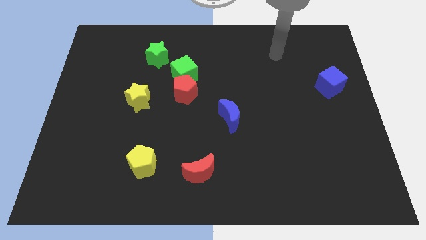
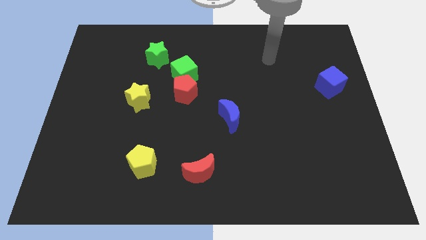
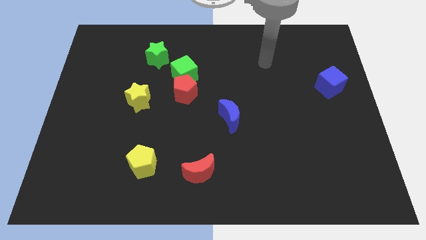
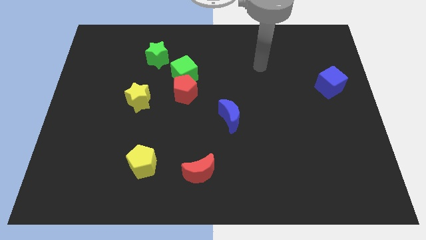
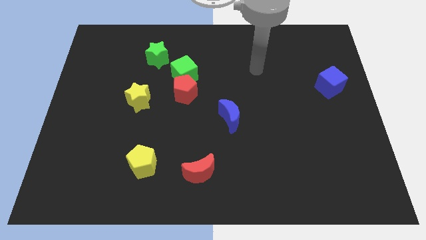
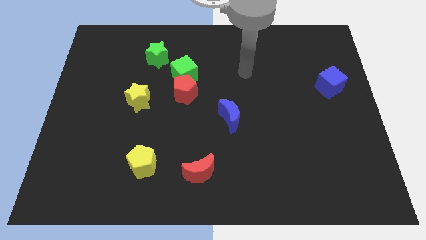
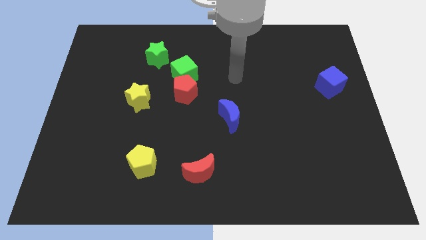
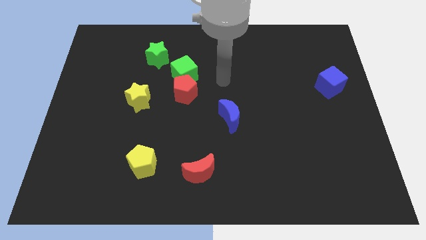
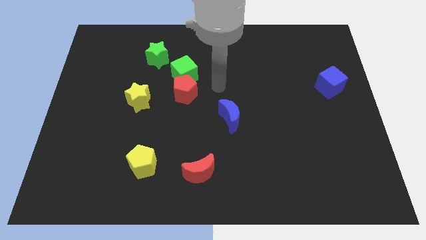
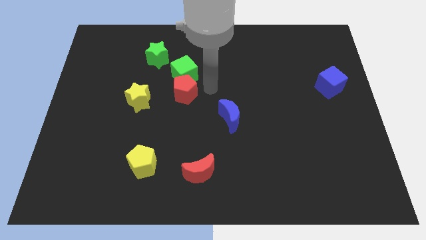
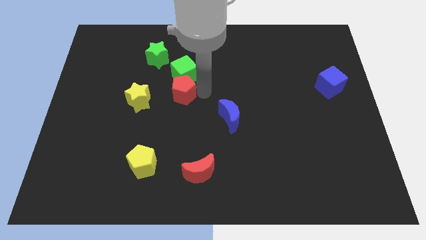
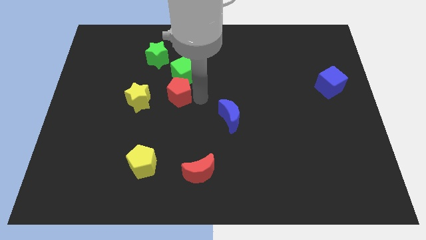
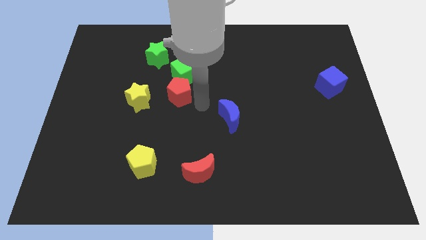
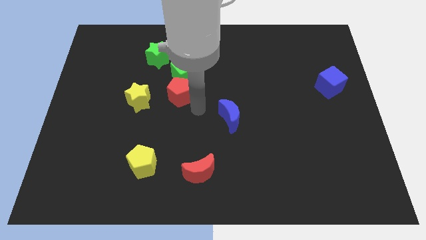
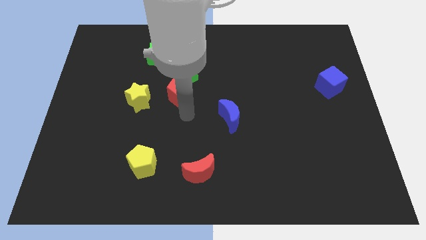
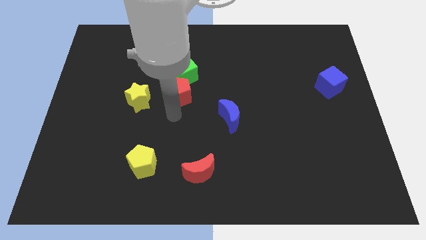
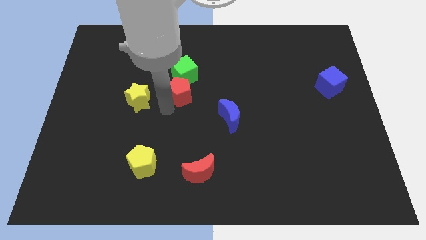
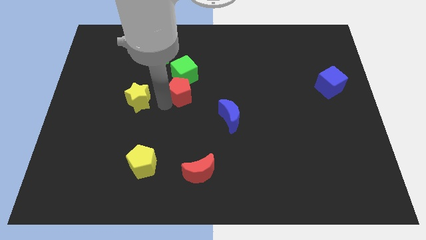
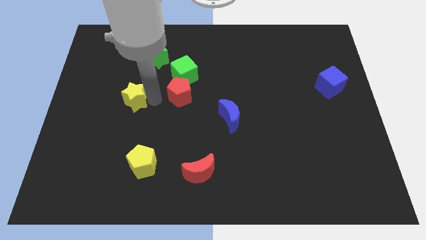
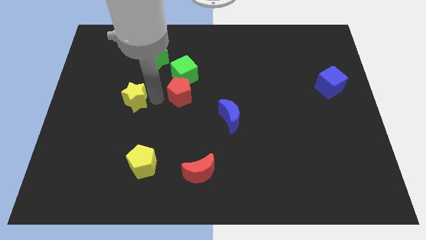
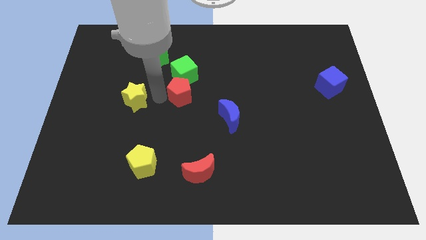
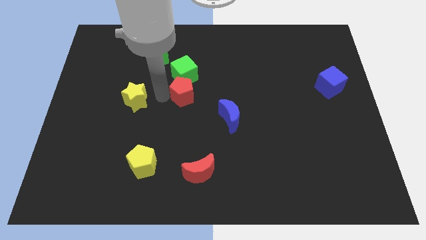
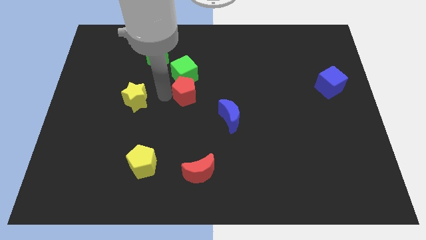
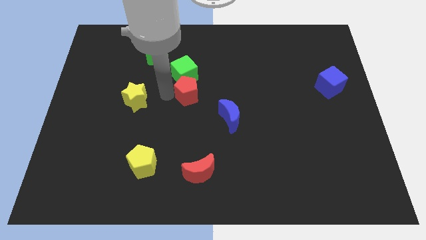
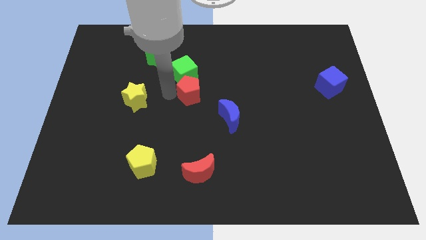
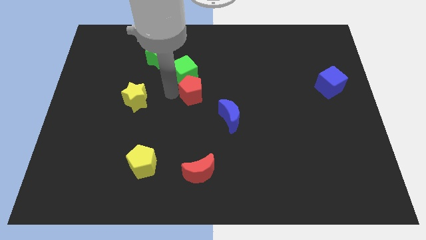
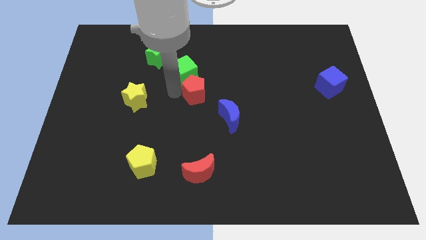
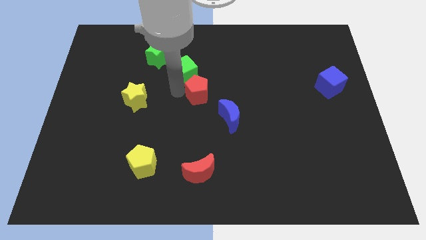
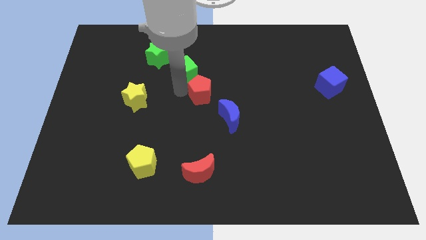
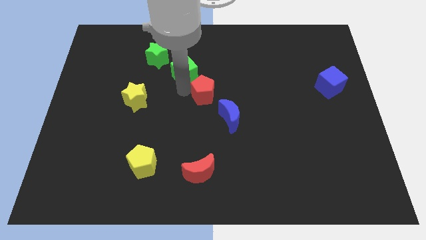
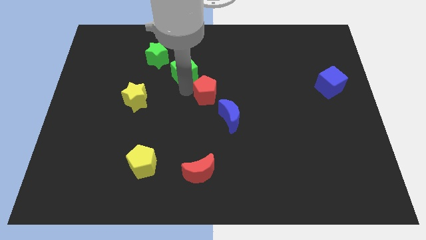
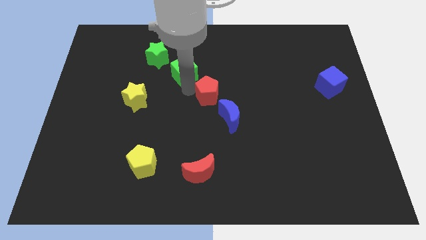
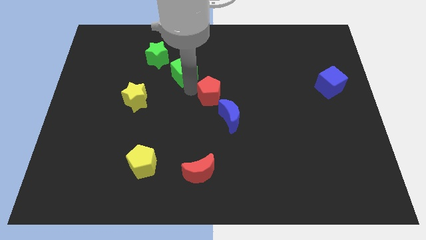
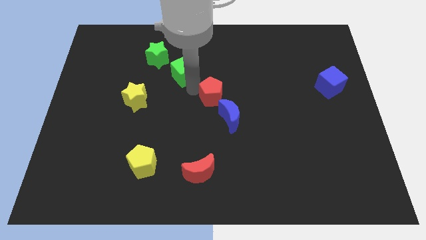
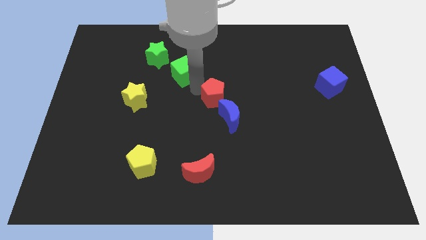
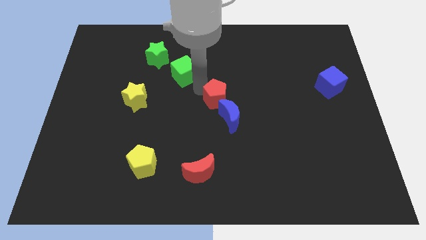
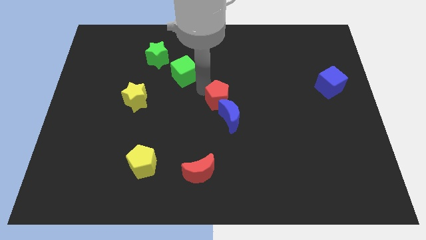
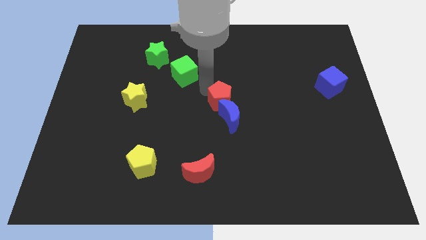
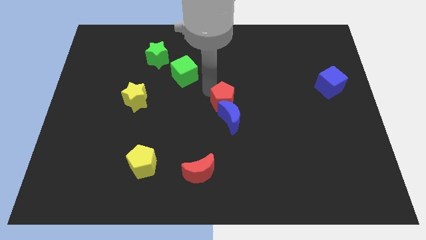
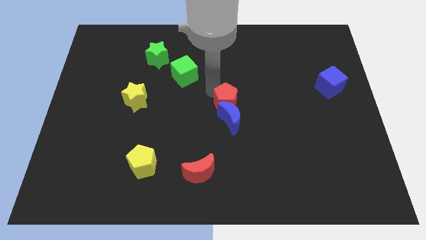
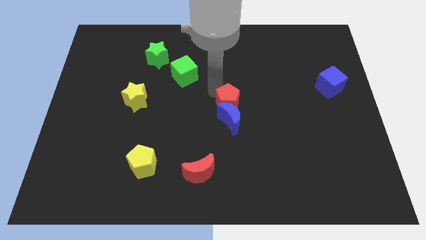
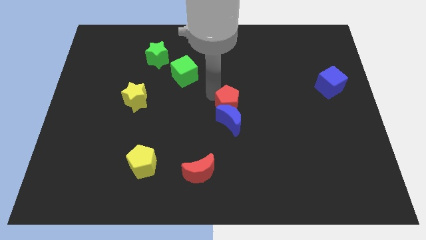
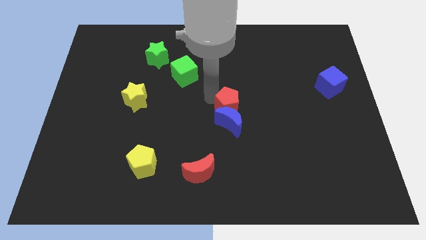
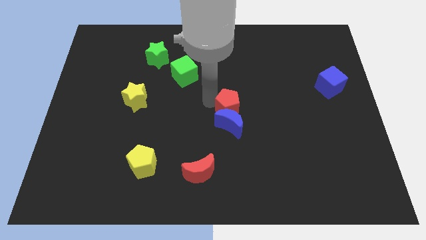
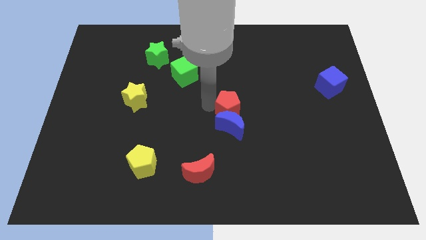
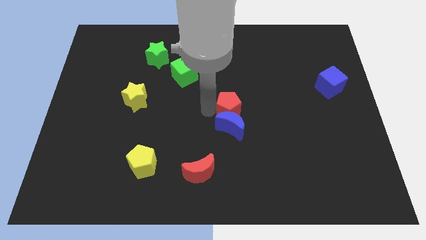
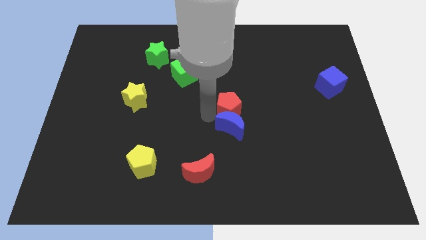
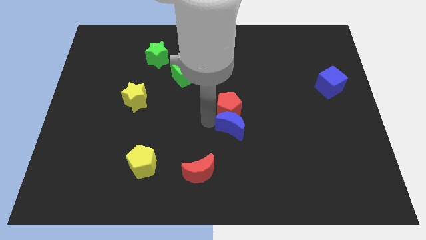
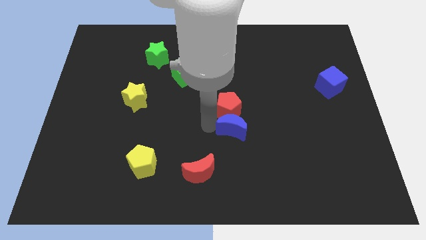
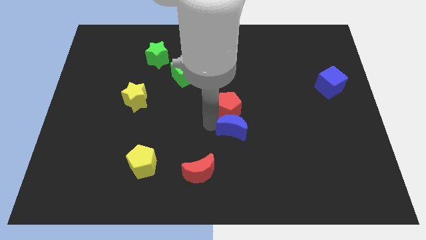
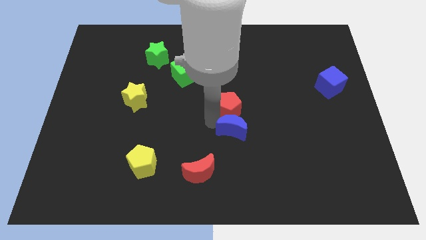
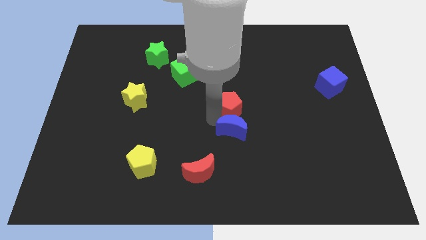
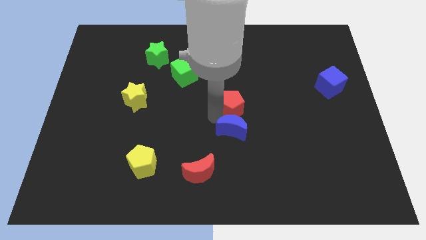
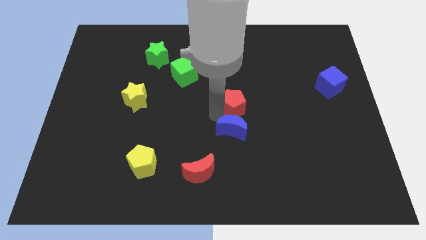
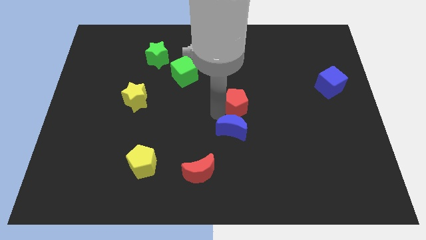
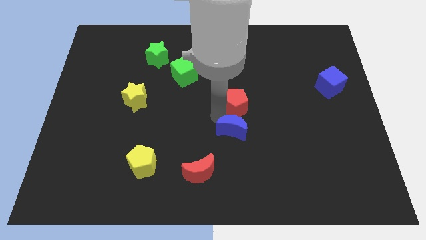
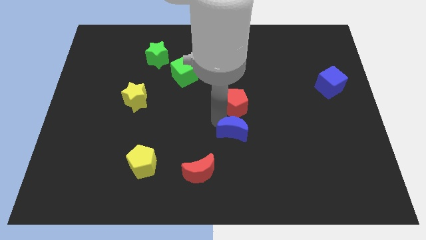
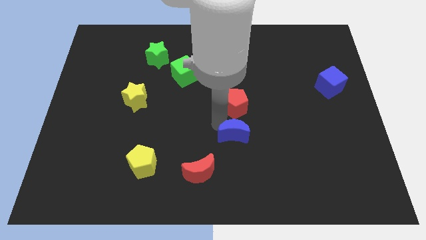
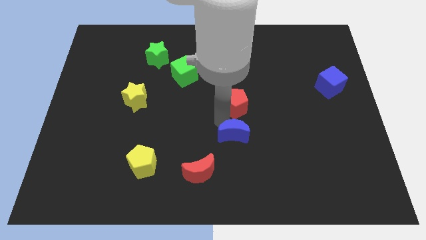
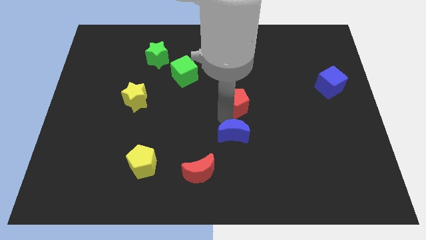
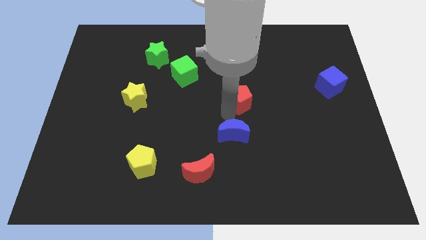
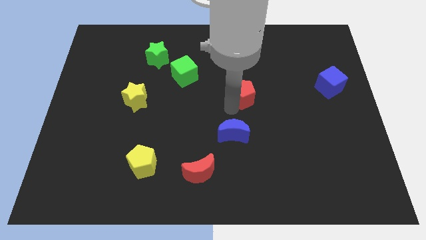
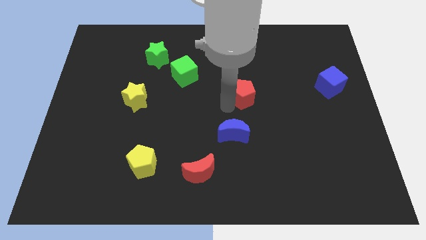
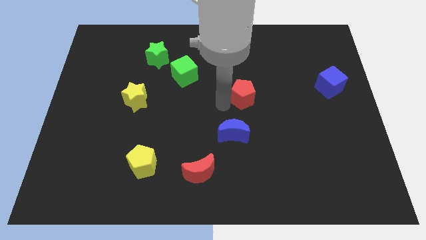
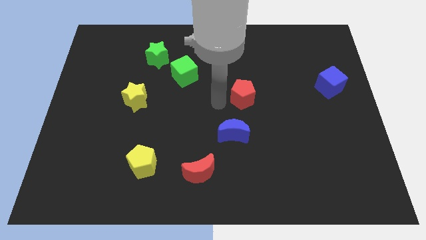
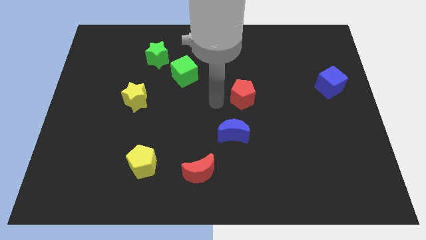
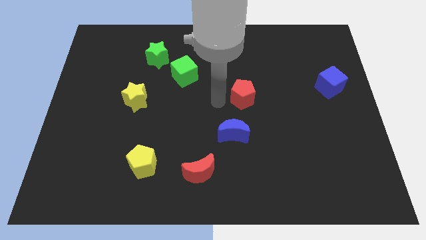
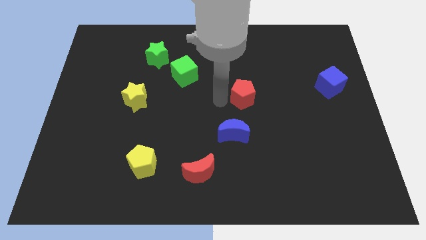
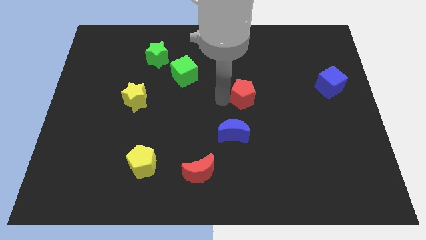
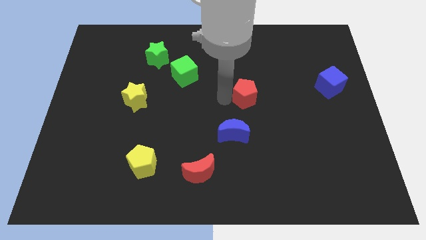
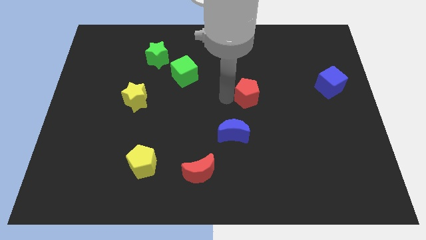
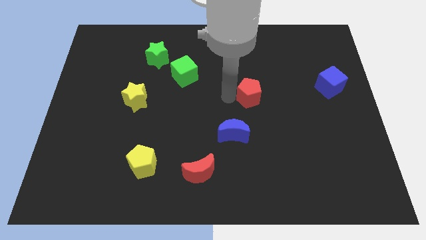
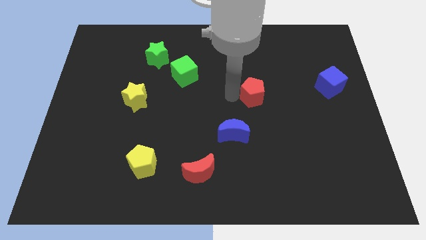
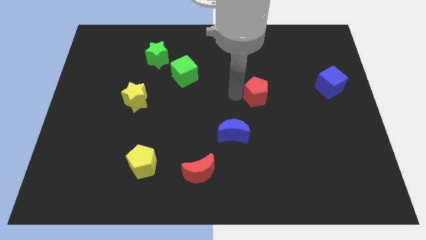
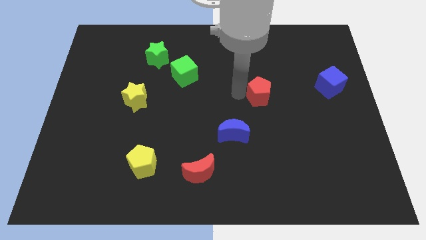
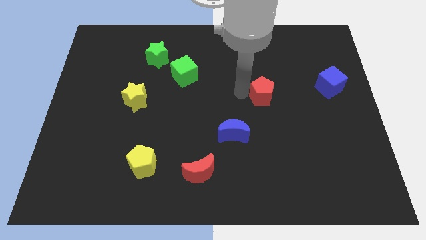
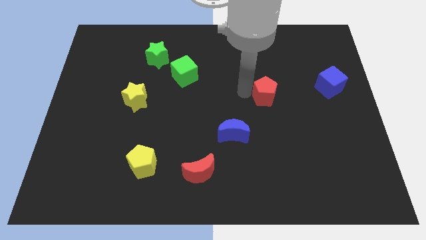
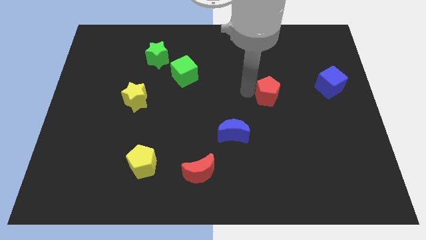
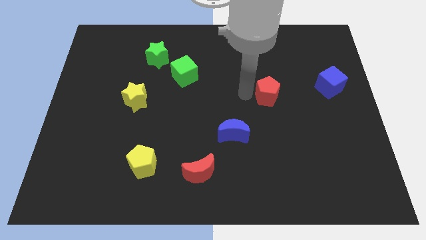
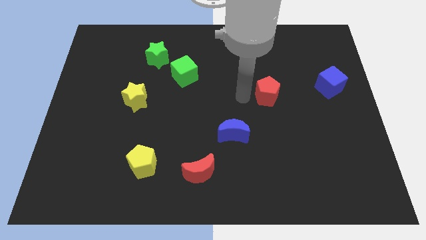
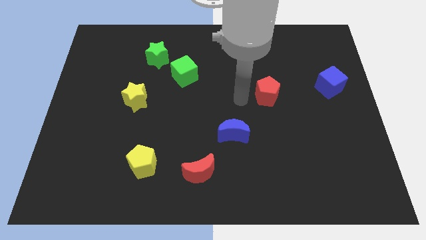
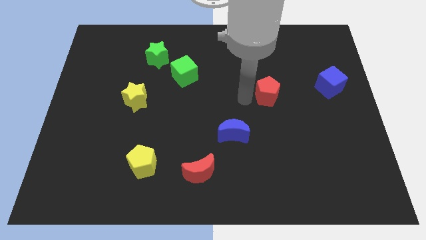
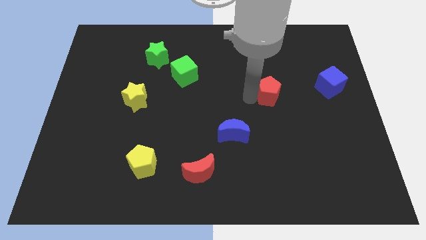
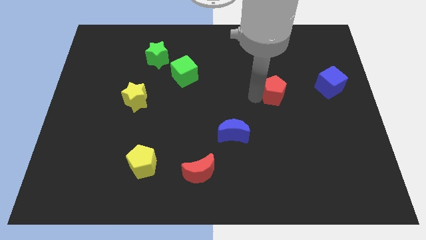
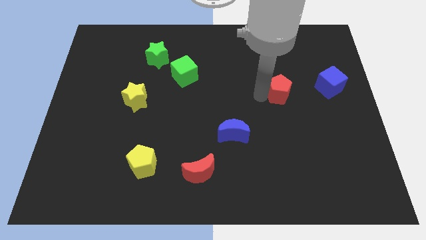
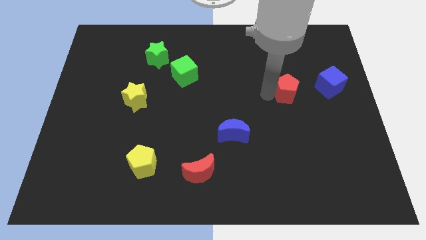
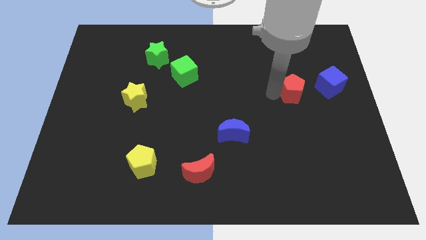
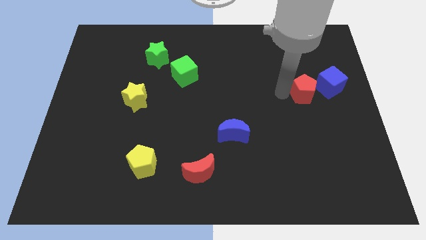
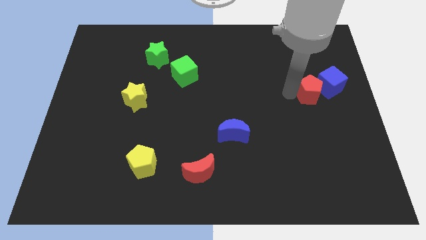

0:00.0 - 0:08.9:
slide the red pentagon next to the blue cube
